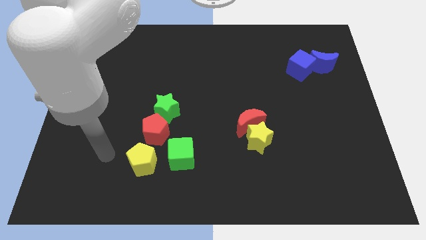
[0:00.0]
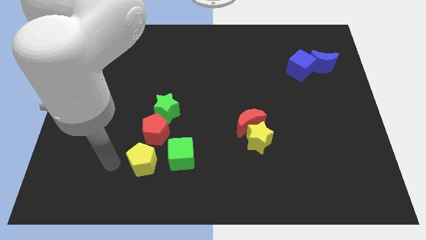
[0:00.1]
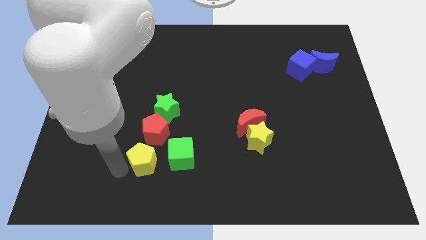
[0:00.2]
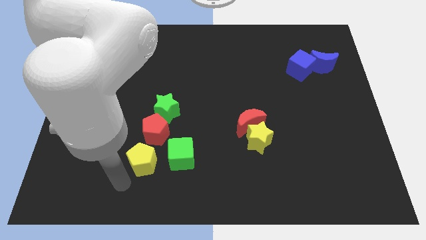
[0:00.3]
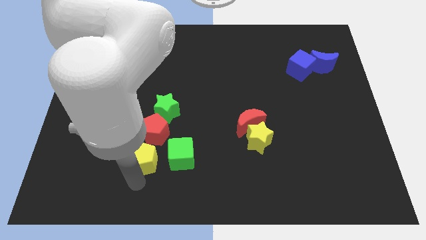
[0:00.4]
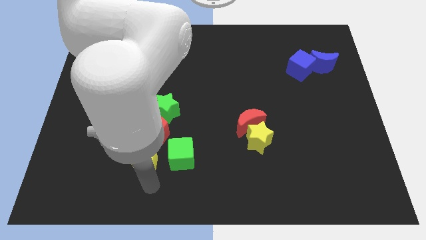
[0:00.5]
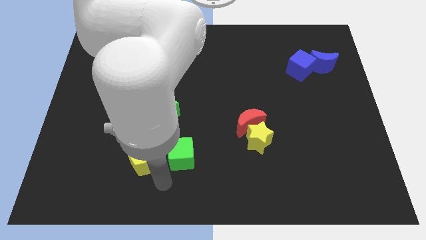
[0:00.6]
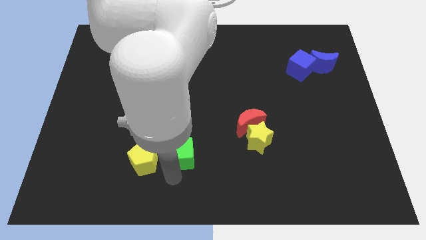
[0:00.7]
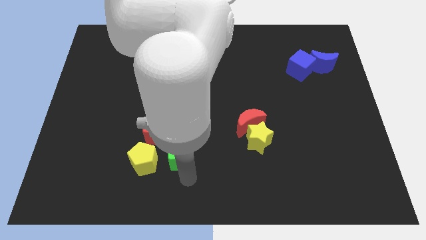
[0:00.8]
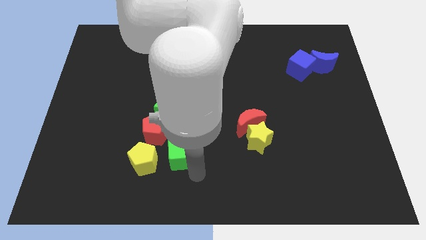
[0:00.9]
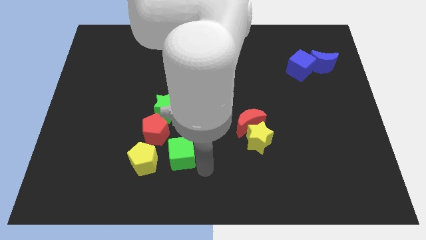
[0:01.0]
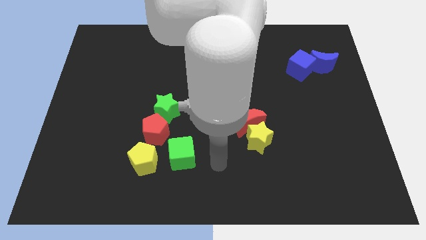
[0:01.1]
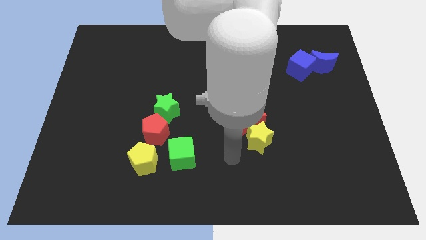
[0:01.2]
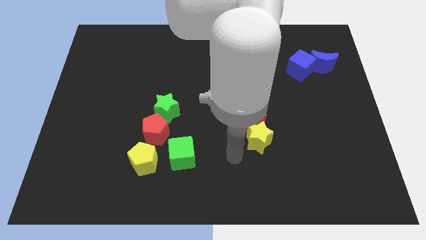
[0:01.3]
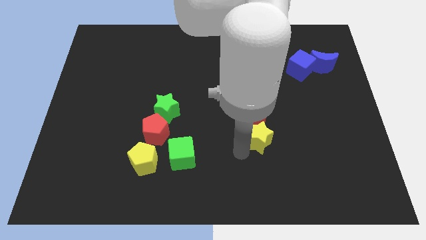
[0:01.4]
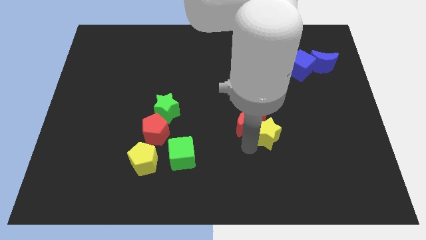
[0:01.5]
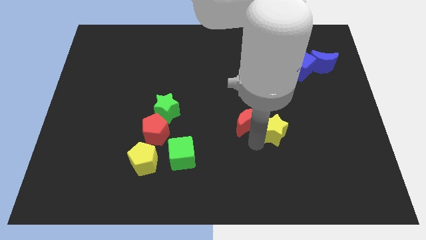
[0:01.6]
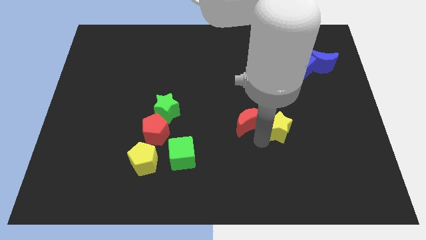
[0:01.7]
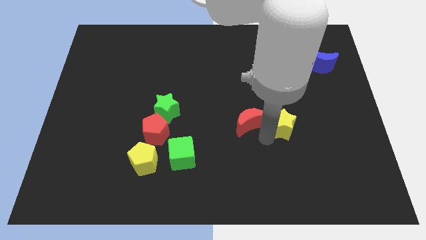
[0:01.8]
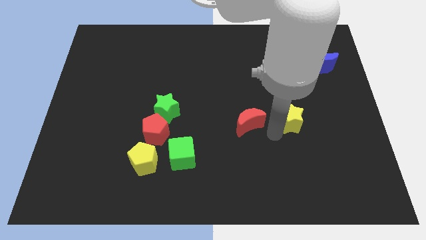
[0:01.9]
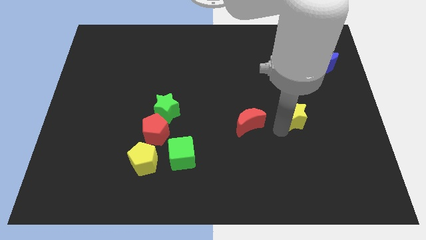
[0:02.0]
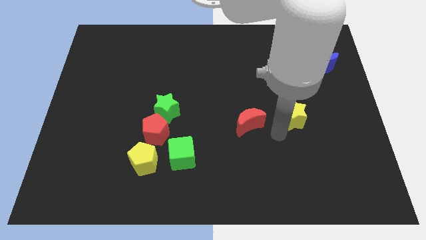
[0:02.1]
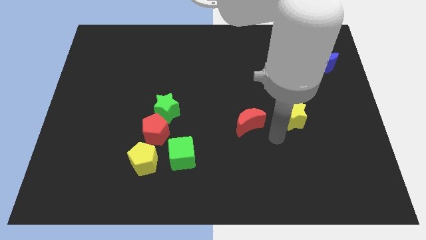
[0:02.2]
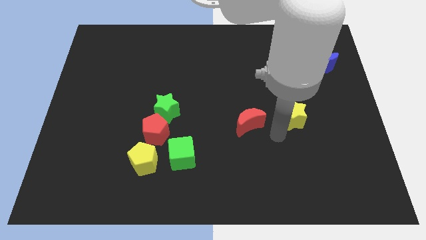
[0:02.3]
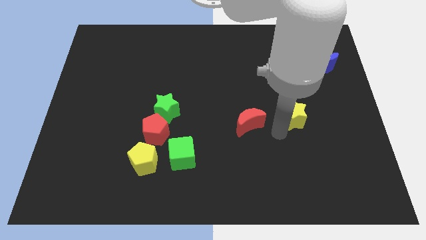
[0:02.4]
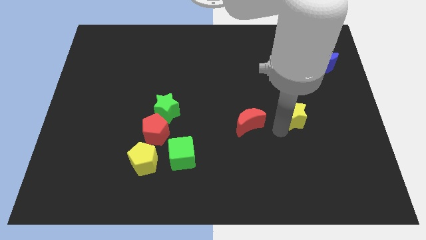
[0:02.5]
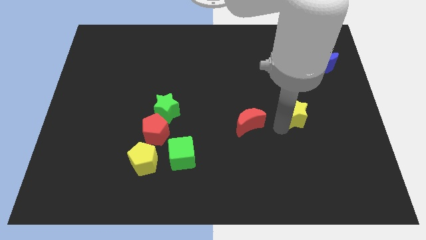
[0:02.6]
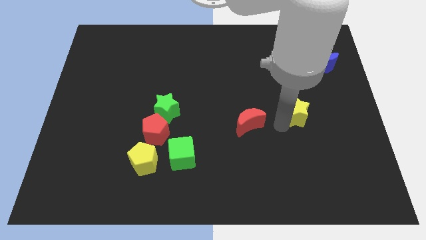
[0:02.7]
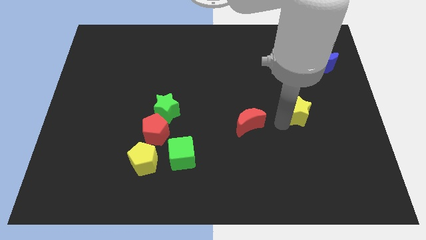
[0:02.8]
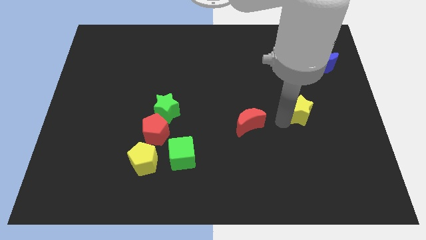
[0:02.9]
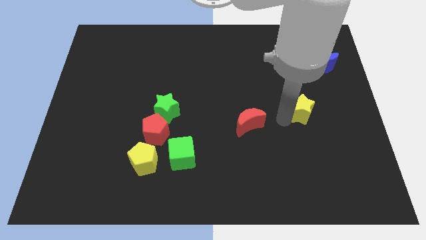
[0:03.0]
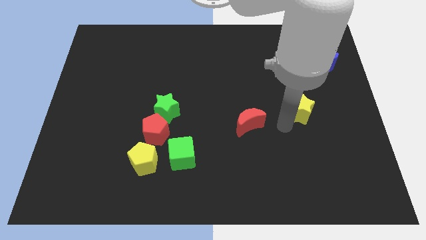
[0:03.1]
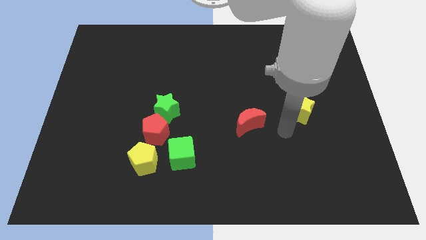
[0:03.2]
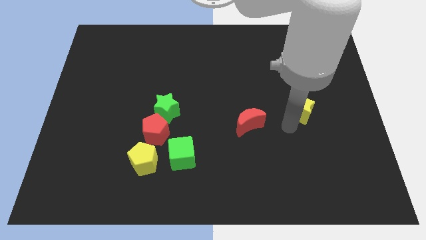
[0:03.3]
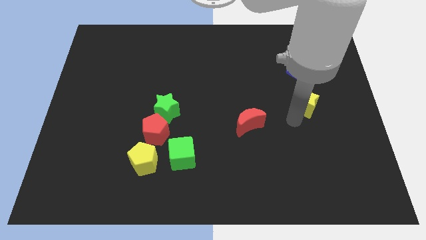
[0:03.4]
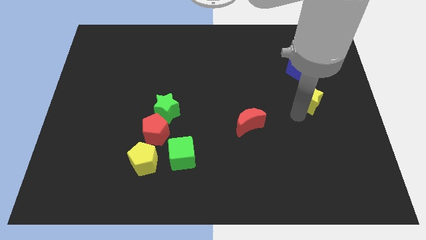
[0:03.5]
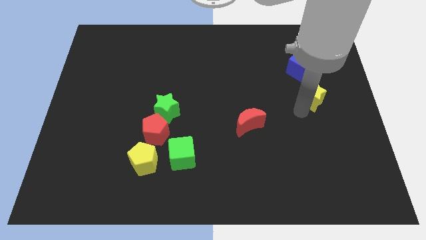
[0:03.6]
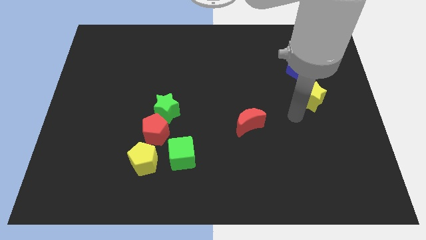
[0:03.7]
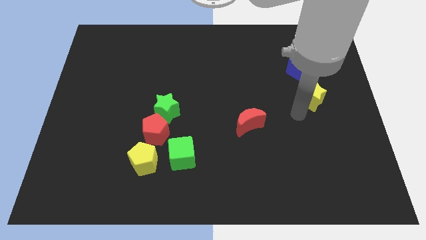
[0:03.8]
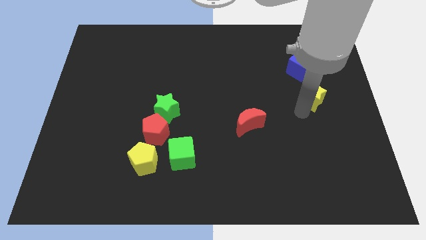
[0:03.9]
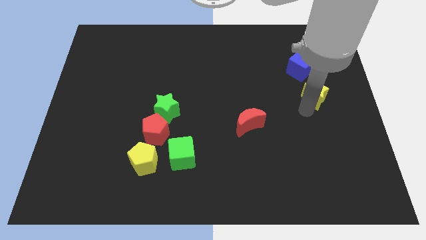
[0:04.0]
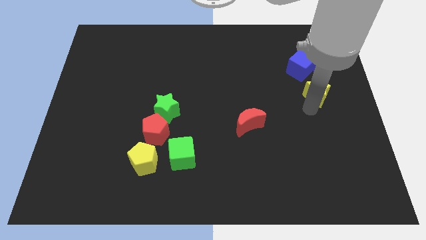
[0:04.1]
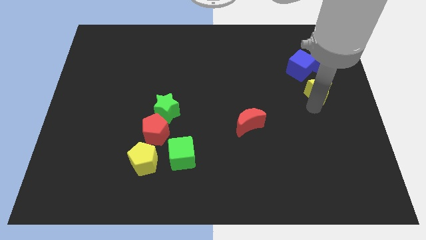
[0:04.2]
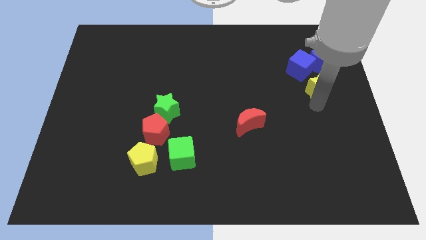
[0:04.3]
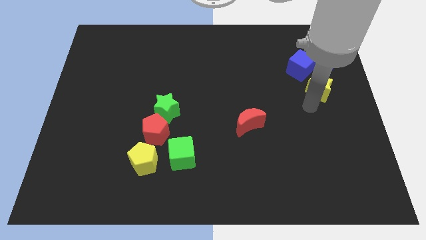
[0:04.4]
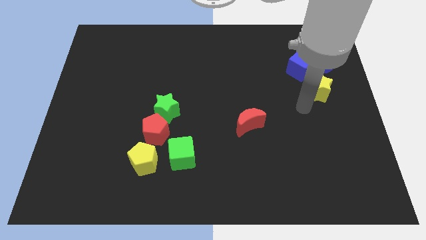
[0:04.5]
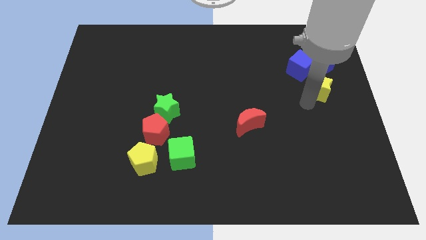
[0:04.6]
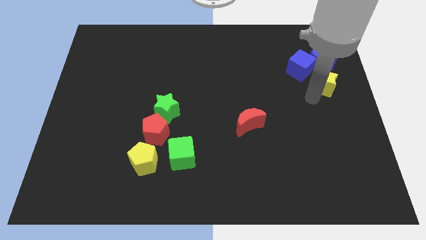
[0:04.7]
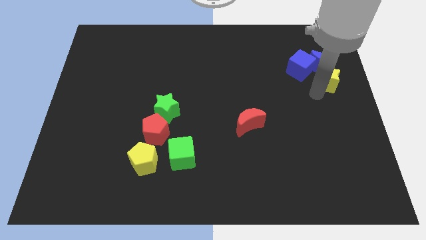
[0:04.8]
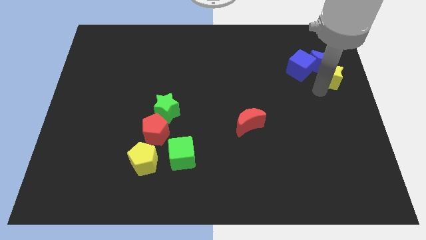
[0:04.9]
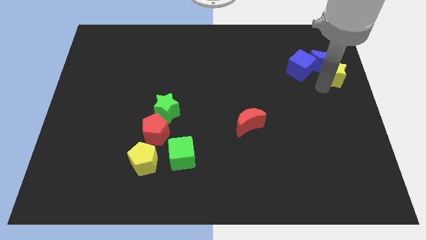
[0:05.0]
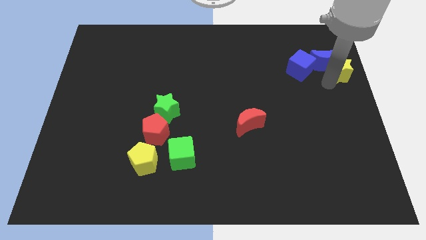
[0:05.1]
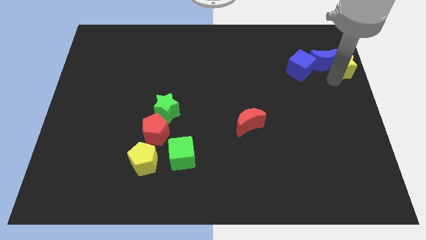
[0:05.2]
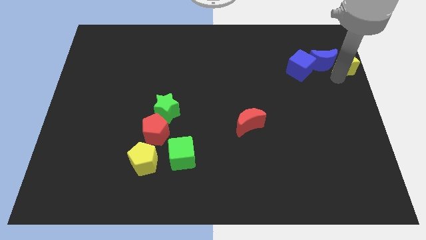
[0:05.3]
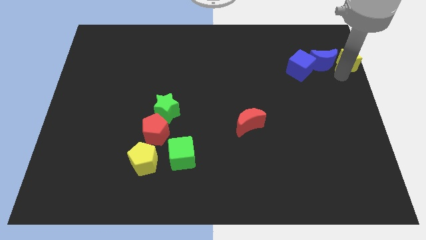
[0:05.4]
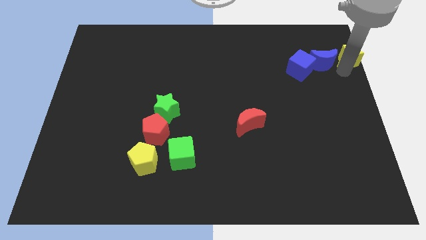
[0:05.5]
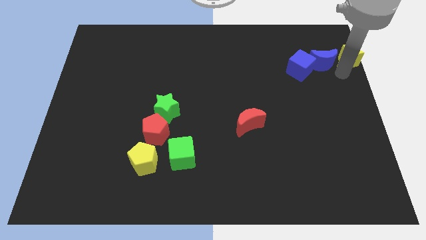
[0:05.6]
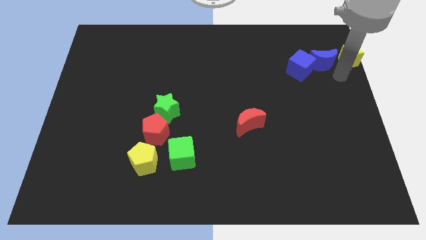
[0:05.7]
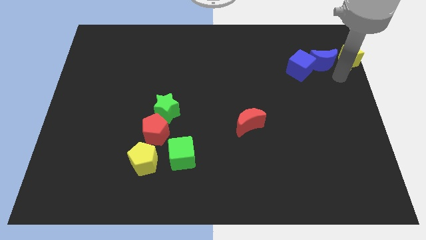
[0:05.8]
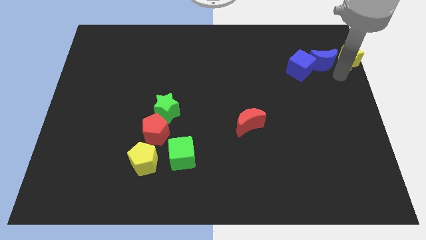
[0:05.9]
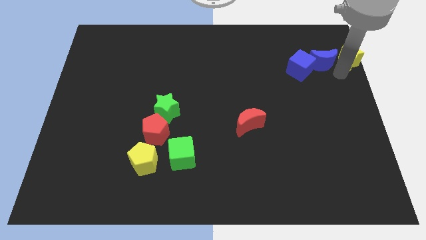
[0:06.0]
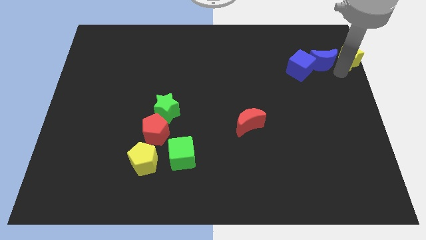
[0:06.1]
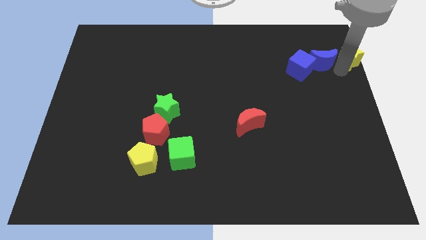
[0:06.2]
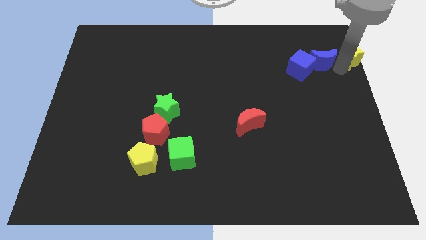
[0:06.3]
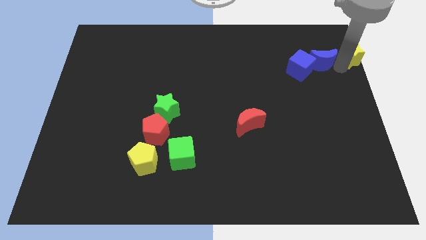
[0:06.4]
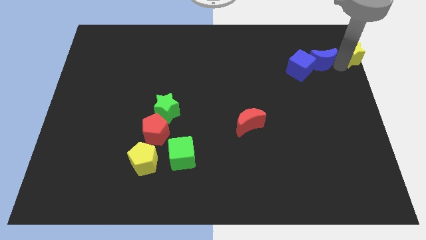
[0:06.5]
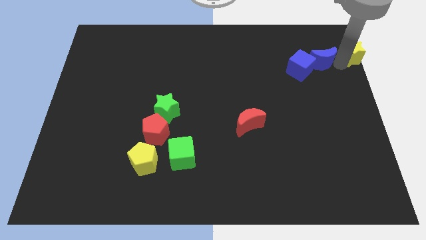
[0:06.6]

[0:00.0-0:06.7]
slide the yellow star to the upper right corner
